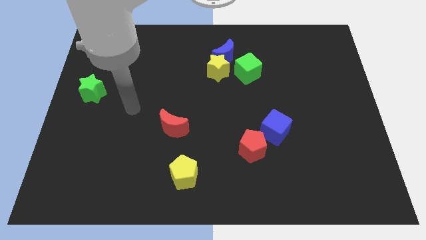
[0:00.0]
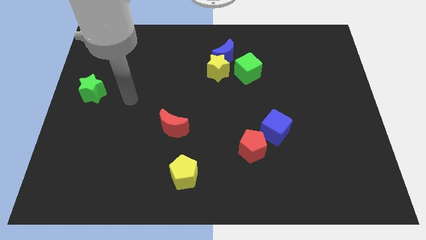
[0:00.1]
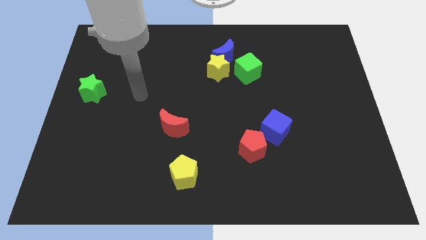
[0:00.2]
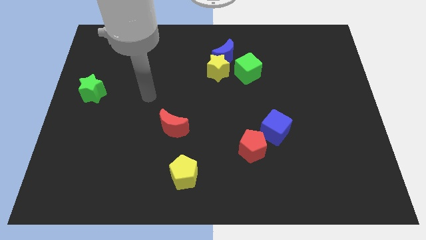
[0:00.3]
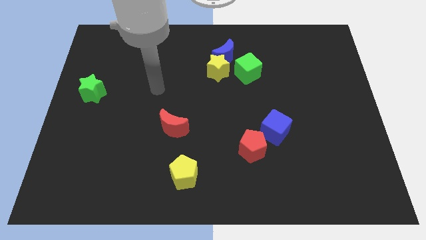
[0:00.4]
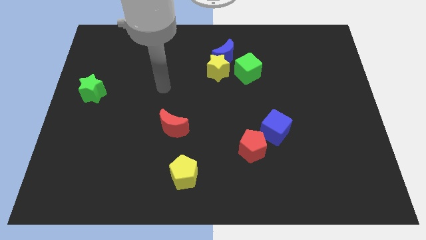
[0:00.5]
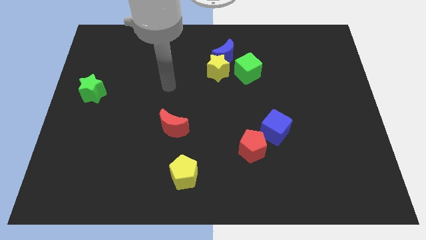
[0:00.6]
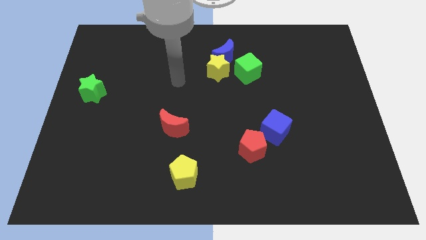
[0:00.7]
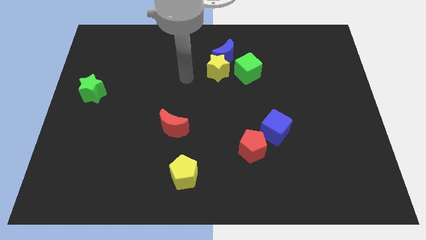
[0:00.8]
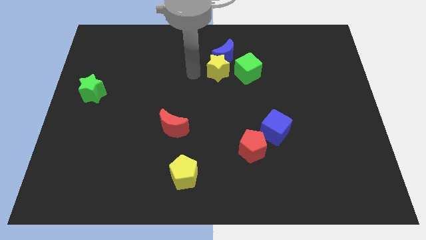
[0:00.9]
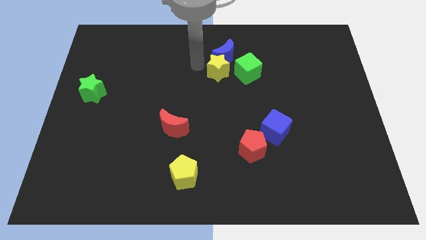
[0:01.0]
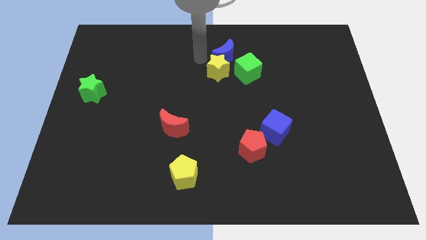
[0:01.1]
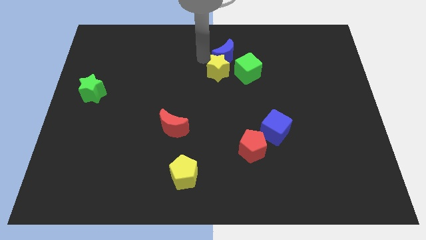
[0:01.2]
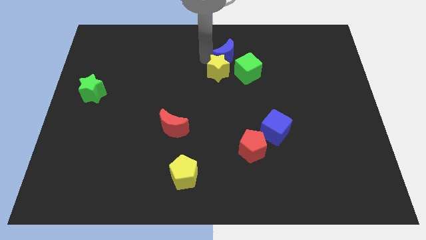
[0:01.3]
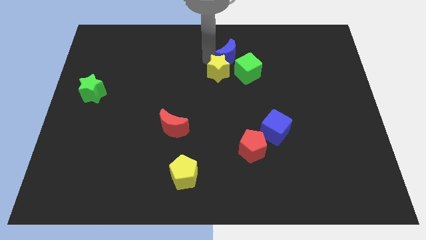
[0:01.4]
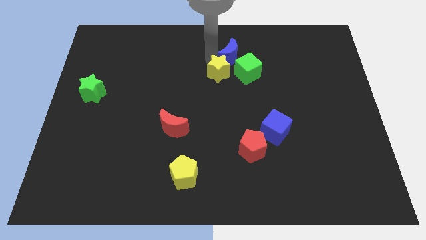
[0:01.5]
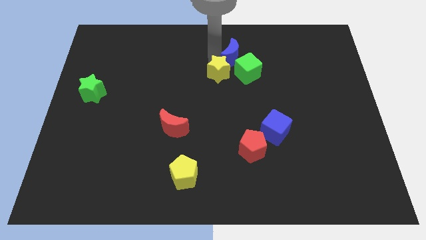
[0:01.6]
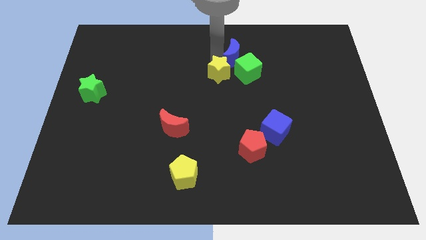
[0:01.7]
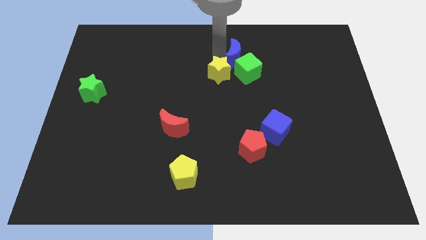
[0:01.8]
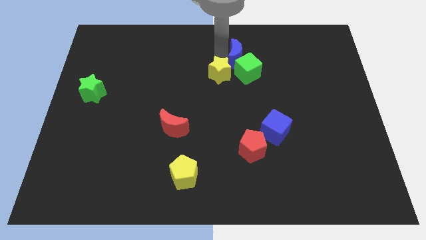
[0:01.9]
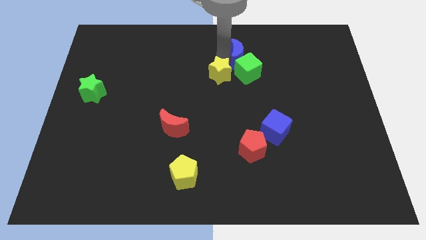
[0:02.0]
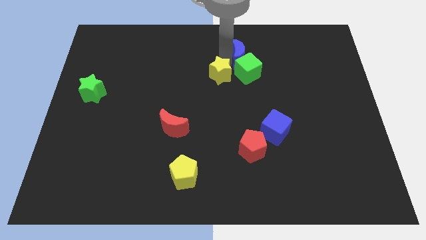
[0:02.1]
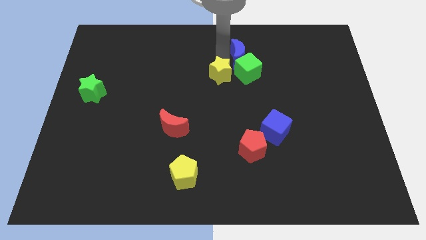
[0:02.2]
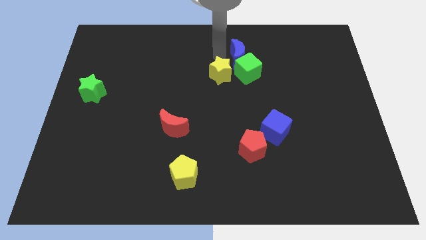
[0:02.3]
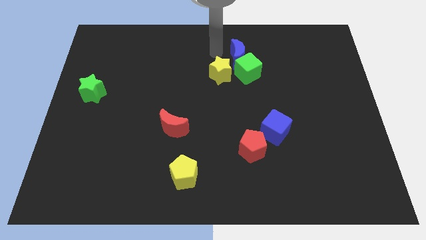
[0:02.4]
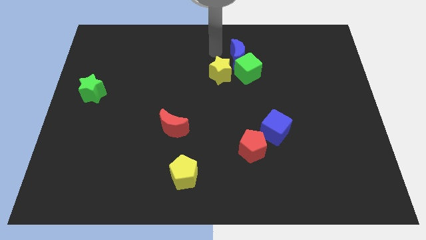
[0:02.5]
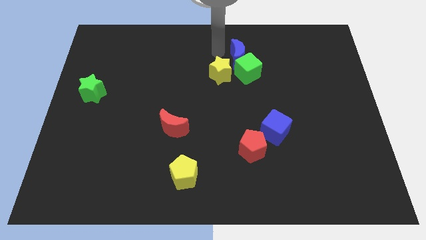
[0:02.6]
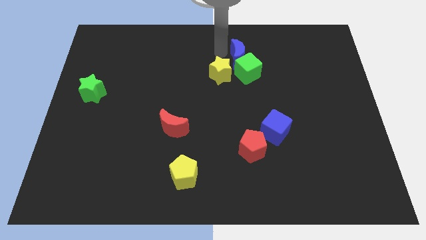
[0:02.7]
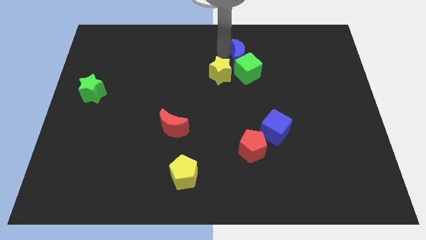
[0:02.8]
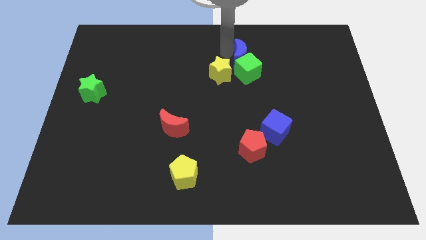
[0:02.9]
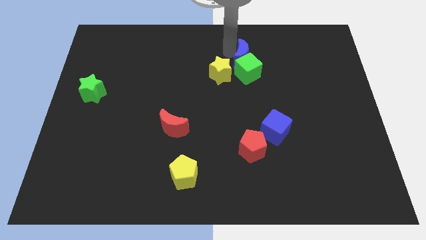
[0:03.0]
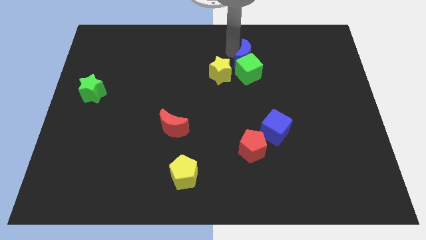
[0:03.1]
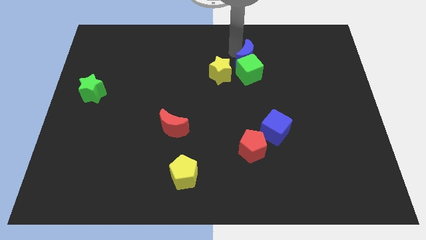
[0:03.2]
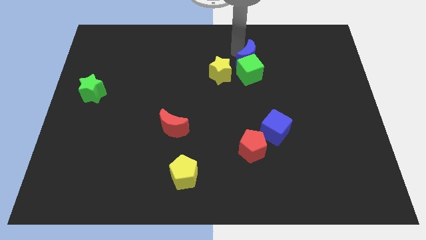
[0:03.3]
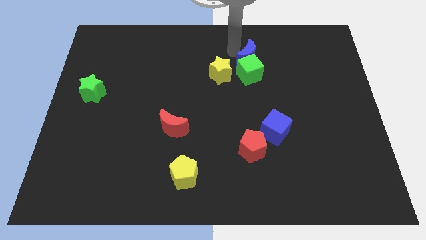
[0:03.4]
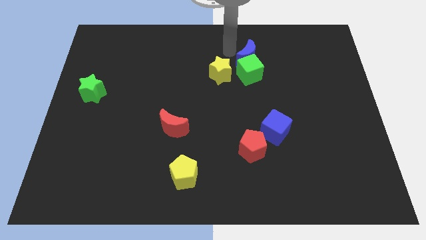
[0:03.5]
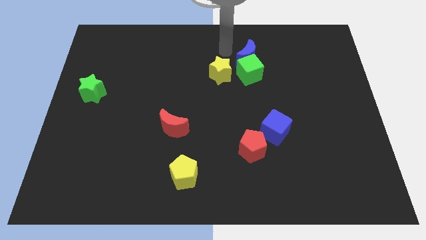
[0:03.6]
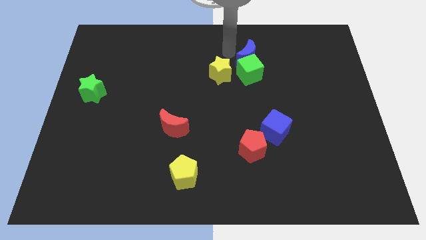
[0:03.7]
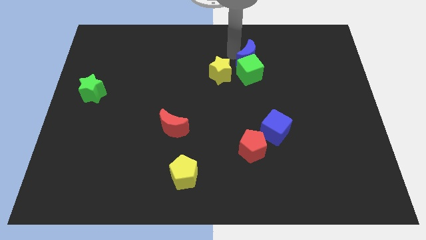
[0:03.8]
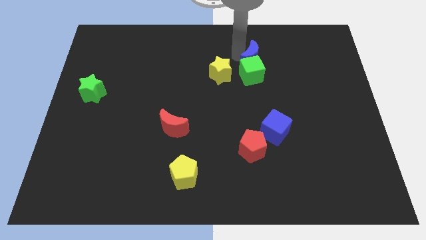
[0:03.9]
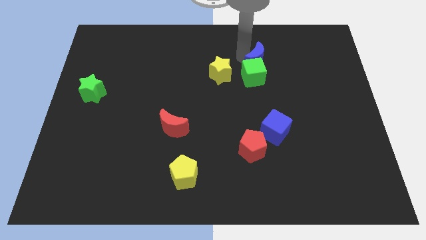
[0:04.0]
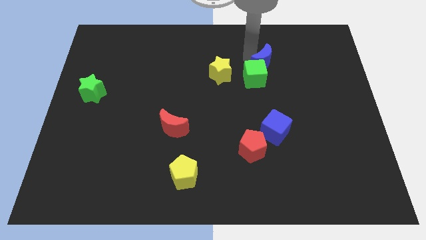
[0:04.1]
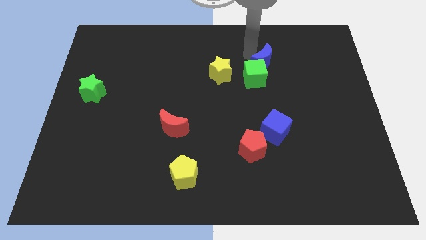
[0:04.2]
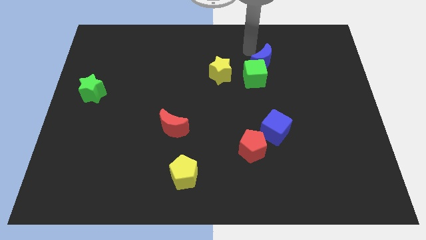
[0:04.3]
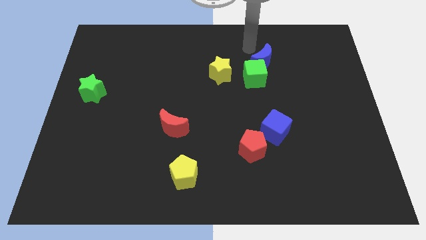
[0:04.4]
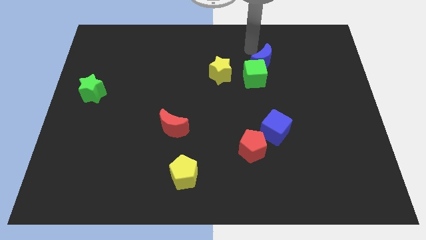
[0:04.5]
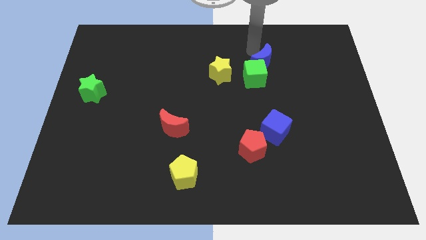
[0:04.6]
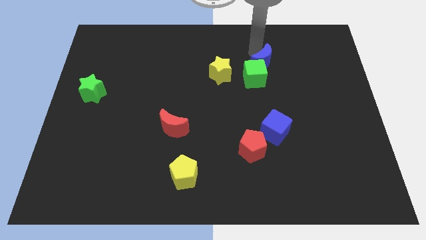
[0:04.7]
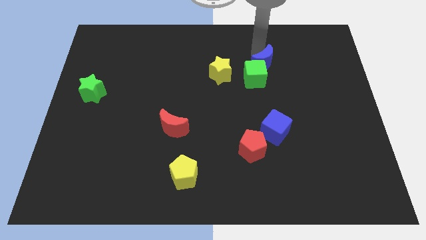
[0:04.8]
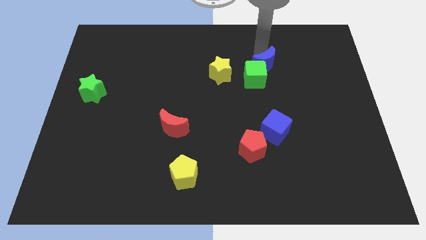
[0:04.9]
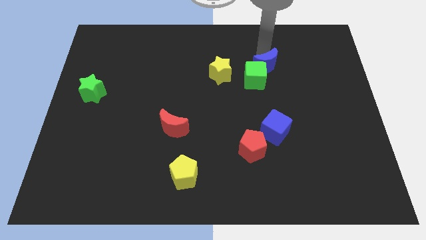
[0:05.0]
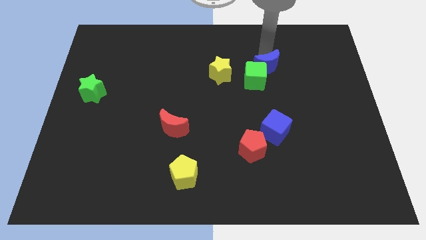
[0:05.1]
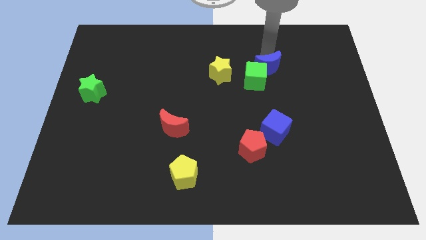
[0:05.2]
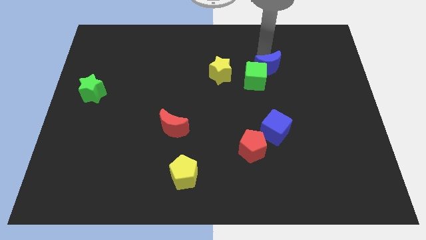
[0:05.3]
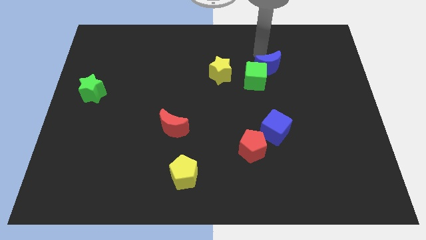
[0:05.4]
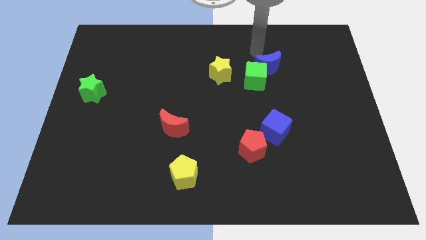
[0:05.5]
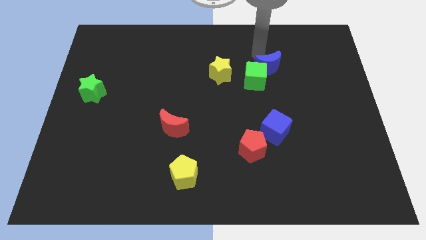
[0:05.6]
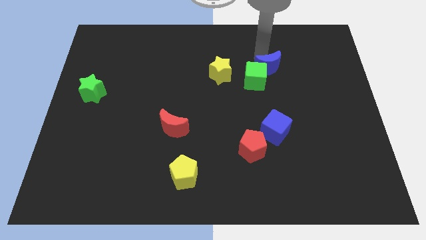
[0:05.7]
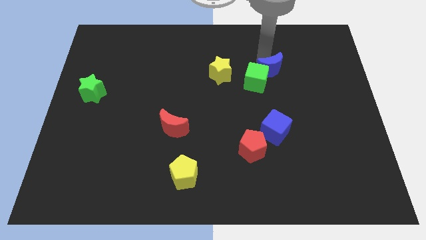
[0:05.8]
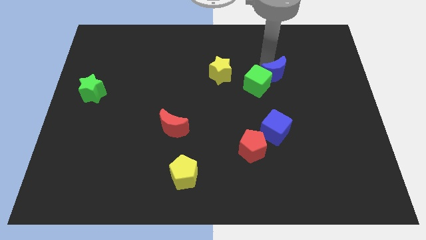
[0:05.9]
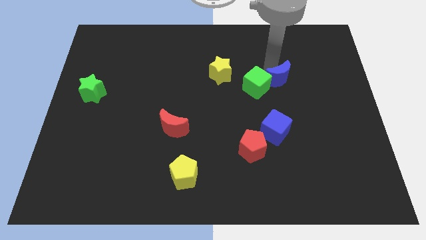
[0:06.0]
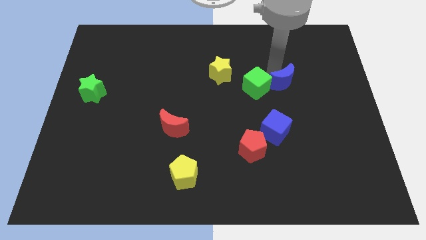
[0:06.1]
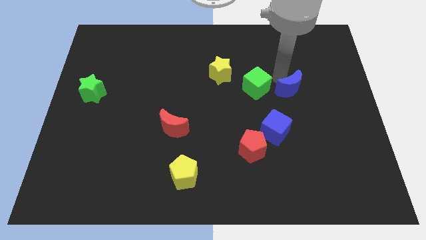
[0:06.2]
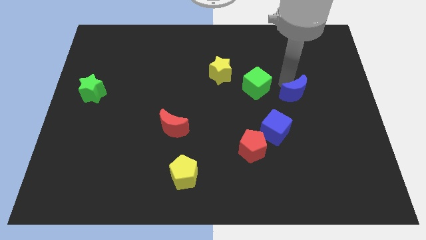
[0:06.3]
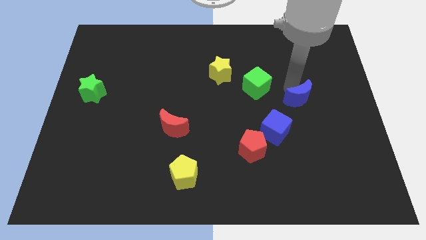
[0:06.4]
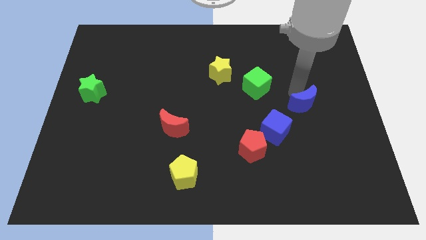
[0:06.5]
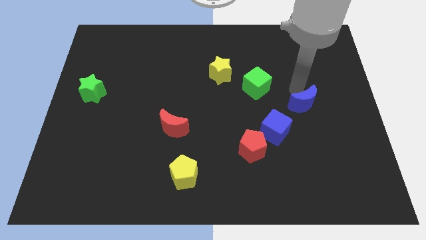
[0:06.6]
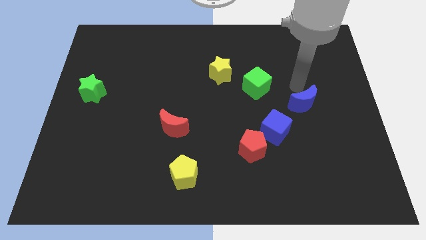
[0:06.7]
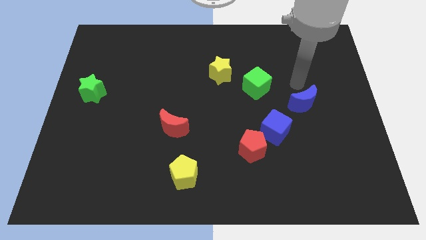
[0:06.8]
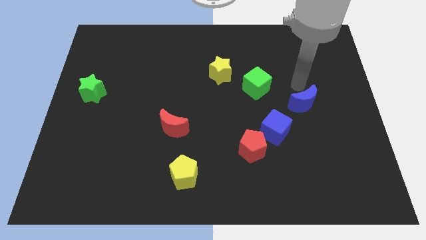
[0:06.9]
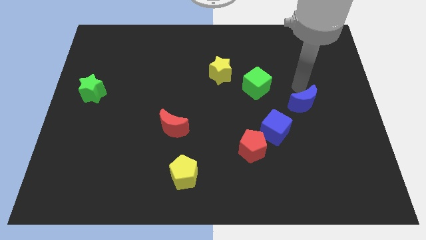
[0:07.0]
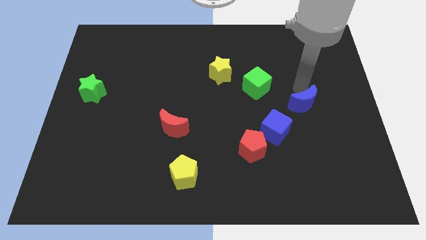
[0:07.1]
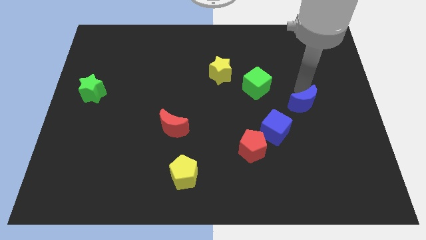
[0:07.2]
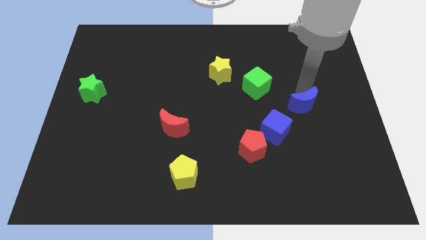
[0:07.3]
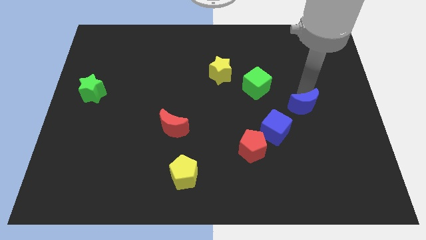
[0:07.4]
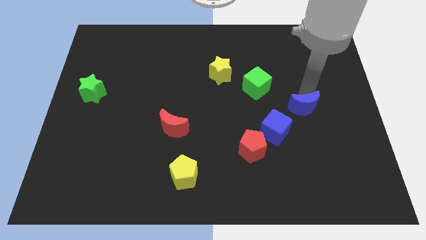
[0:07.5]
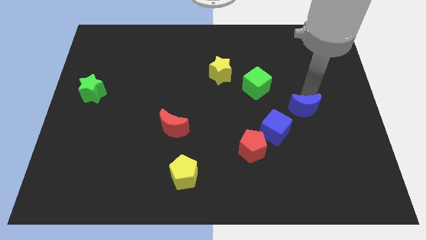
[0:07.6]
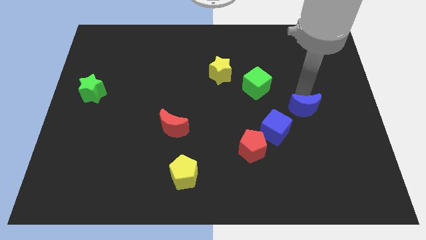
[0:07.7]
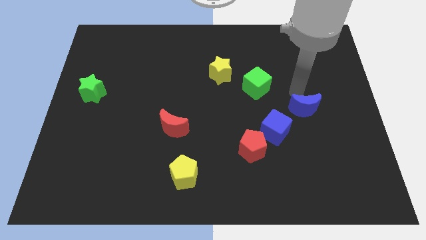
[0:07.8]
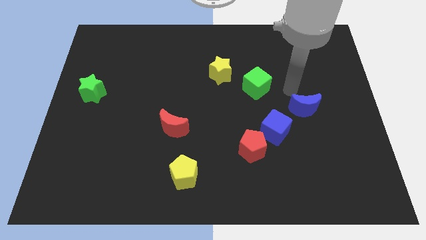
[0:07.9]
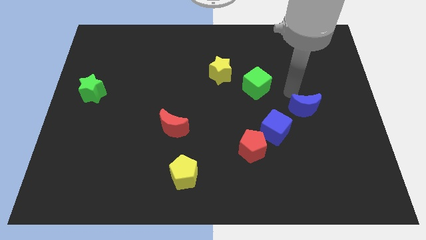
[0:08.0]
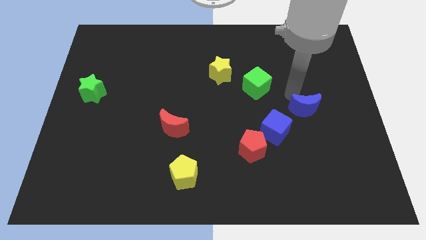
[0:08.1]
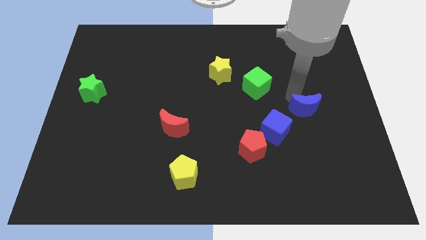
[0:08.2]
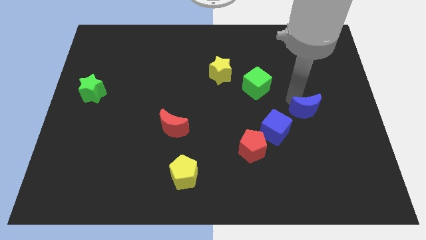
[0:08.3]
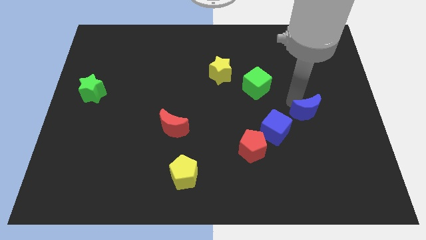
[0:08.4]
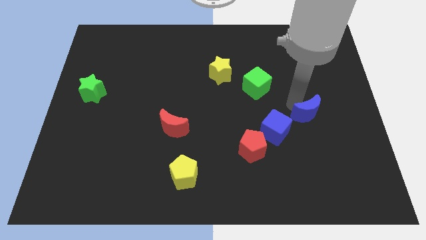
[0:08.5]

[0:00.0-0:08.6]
move the blue moon just right of the blue cube
